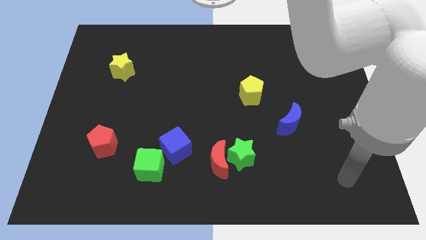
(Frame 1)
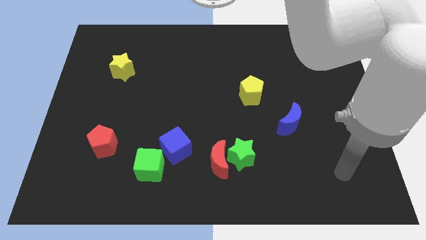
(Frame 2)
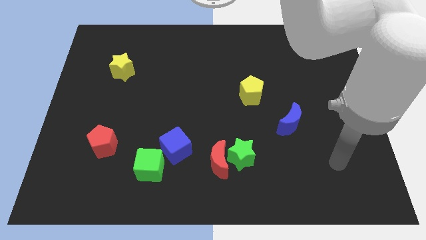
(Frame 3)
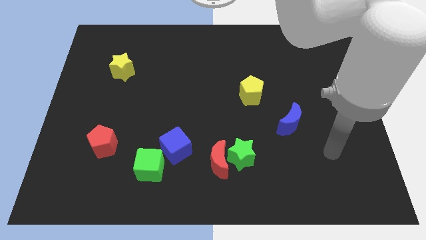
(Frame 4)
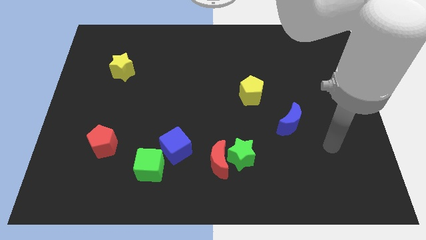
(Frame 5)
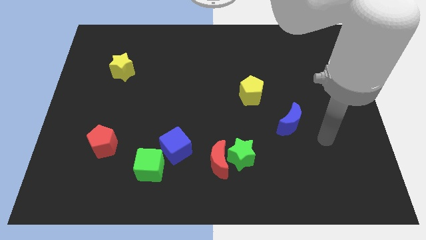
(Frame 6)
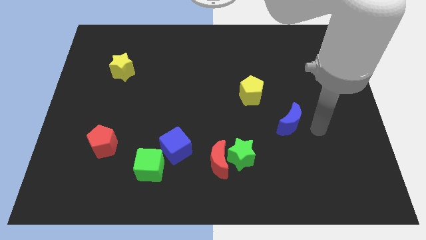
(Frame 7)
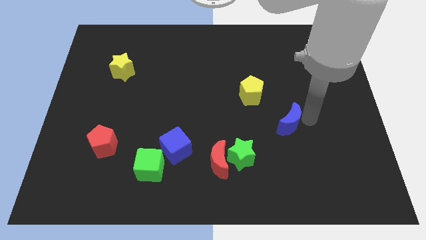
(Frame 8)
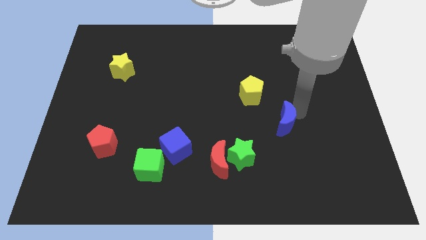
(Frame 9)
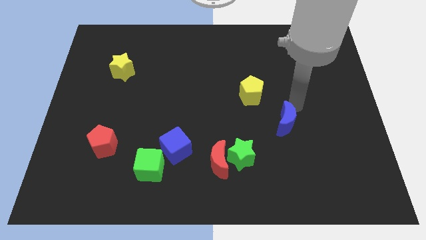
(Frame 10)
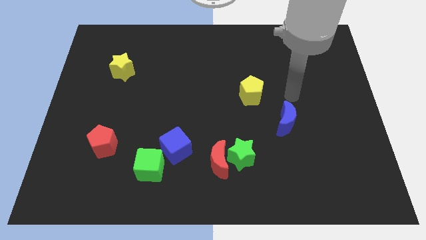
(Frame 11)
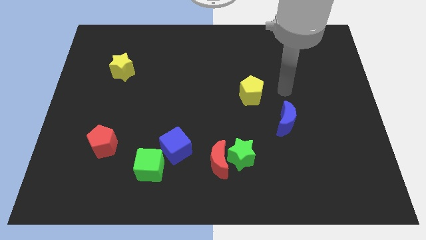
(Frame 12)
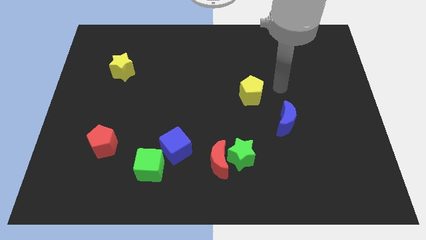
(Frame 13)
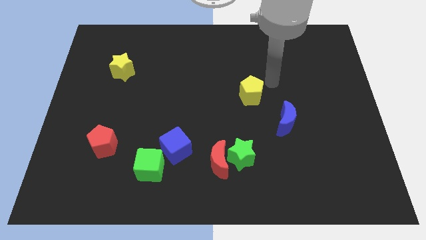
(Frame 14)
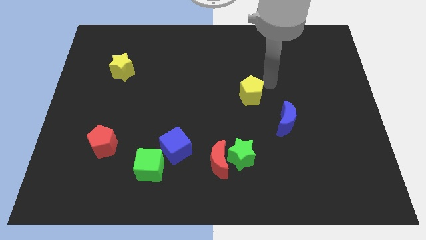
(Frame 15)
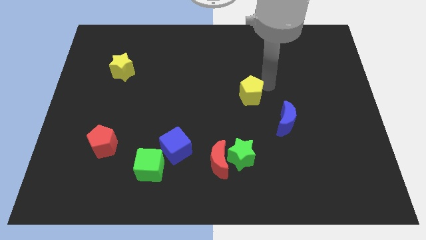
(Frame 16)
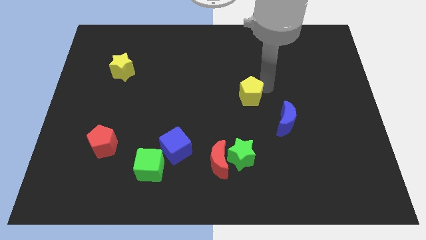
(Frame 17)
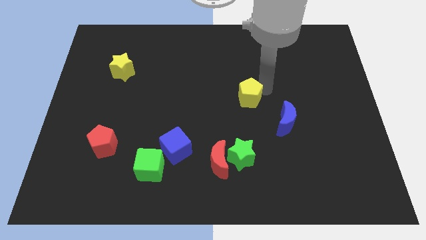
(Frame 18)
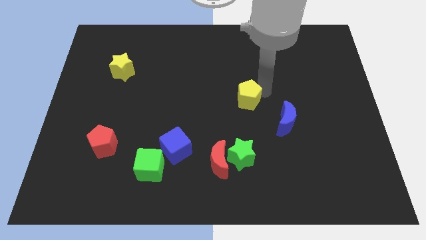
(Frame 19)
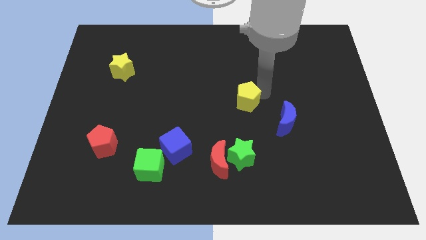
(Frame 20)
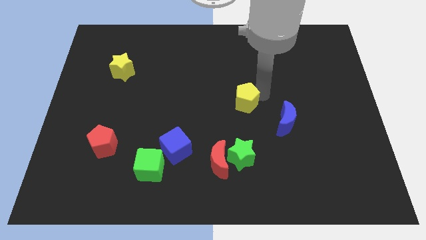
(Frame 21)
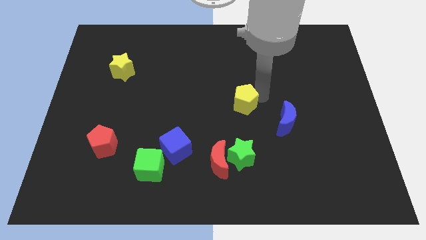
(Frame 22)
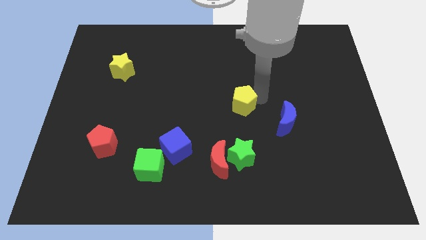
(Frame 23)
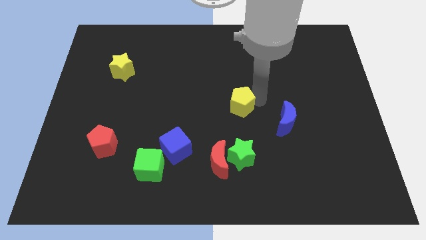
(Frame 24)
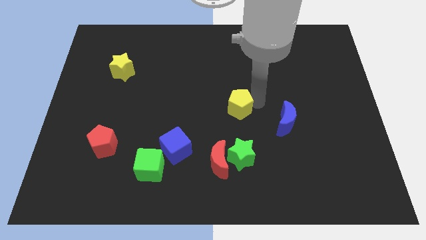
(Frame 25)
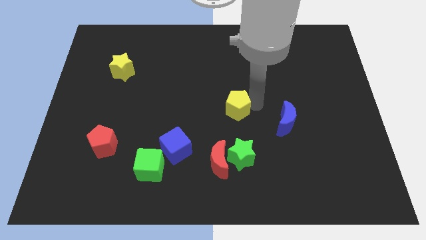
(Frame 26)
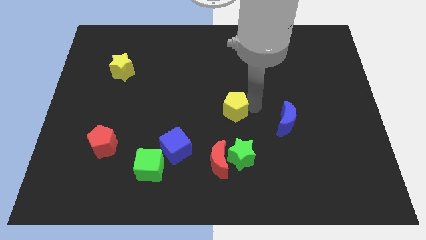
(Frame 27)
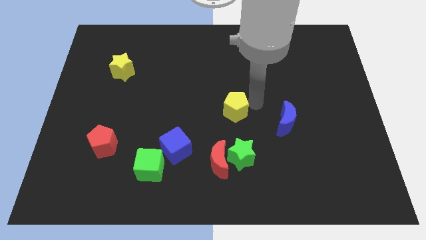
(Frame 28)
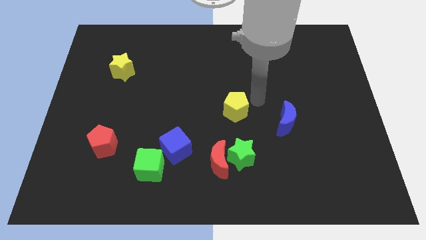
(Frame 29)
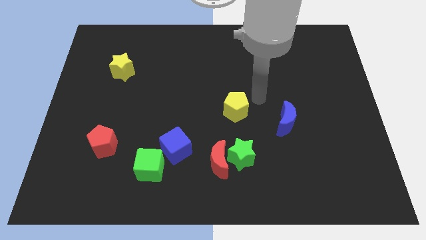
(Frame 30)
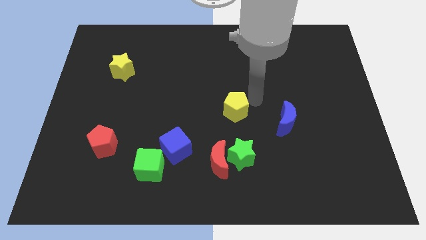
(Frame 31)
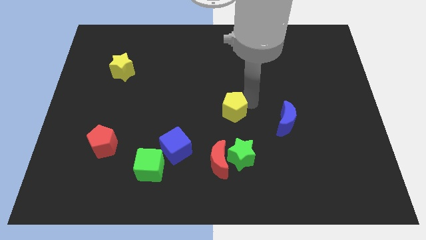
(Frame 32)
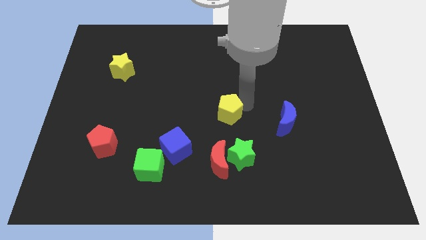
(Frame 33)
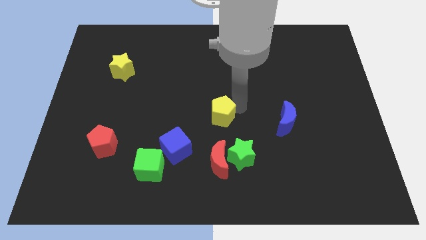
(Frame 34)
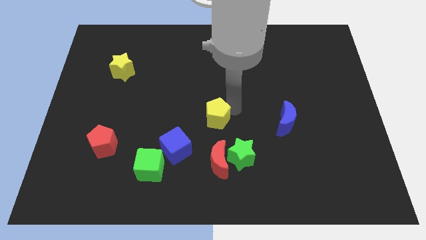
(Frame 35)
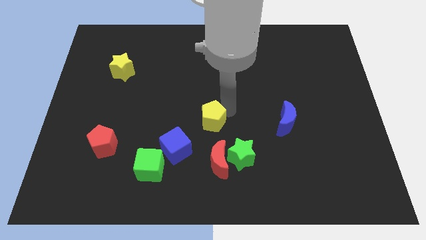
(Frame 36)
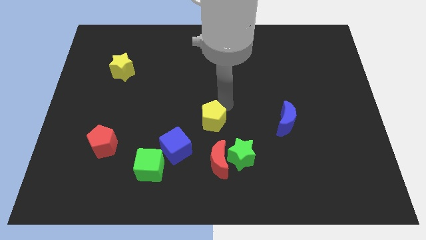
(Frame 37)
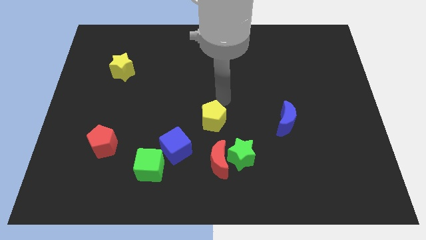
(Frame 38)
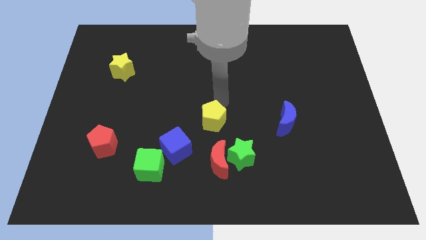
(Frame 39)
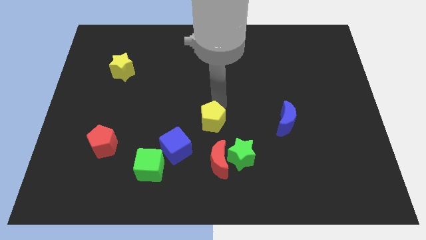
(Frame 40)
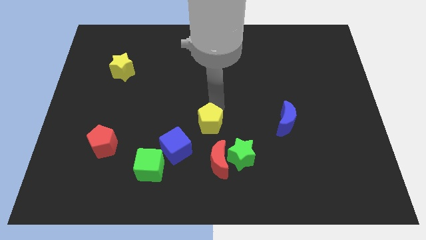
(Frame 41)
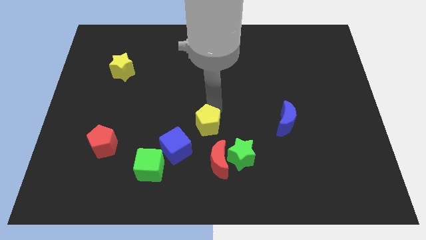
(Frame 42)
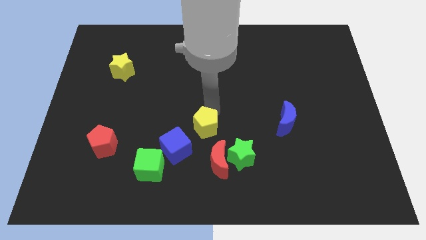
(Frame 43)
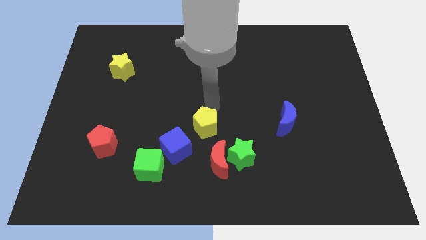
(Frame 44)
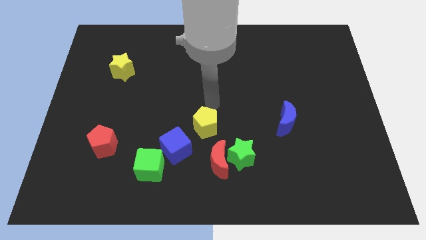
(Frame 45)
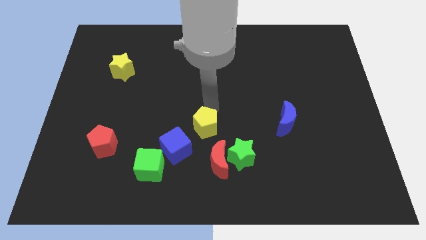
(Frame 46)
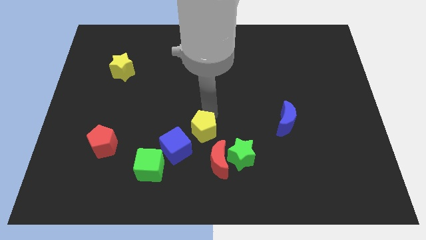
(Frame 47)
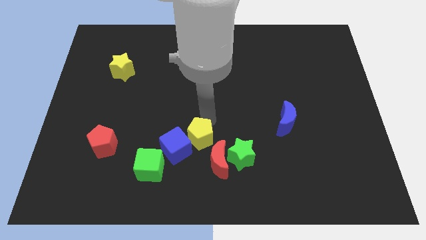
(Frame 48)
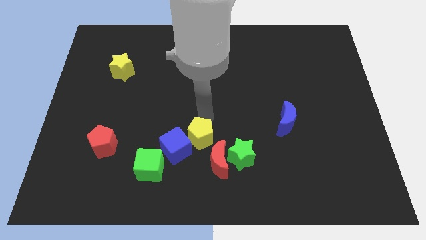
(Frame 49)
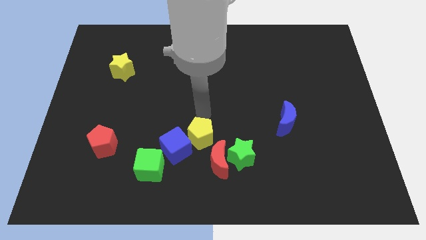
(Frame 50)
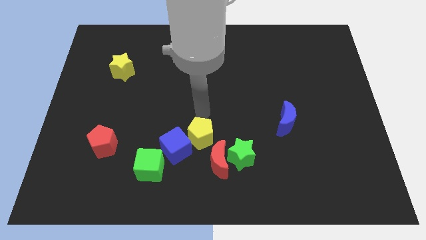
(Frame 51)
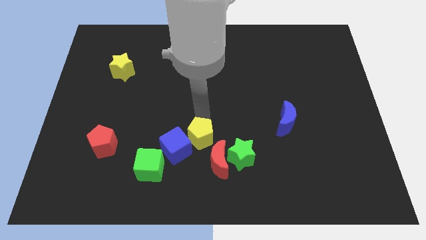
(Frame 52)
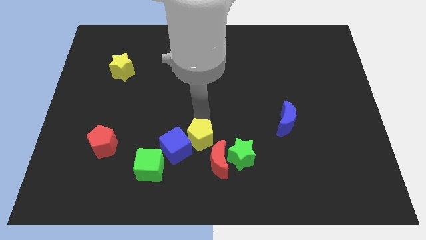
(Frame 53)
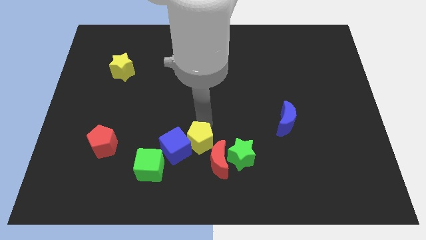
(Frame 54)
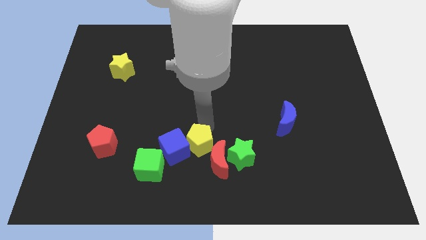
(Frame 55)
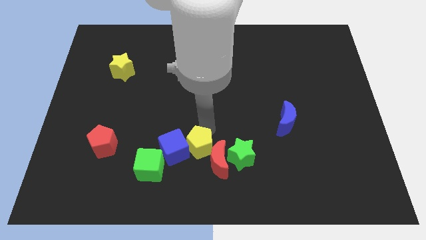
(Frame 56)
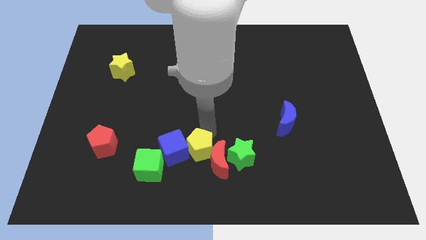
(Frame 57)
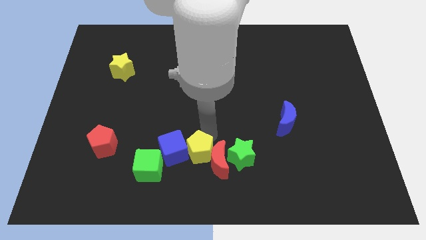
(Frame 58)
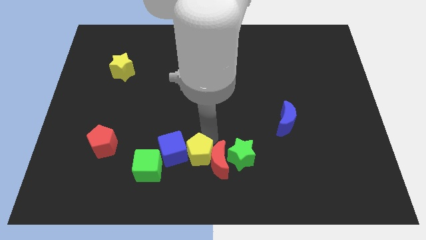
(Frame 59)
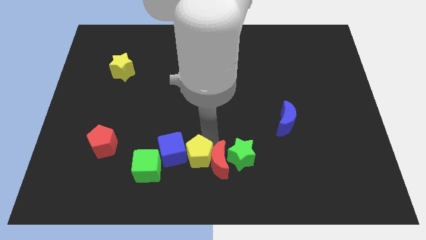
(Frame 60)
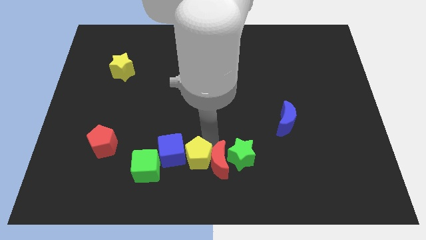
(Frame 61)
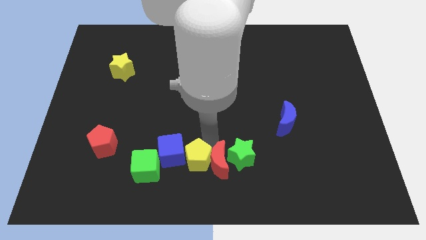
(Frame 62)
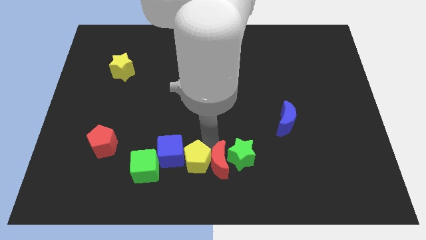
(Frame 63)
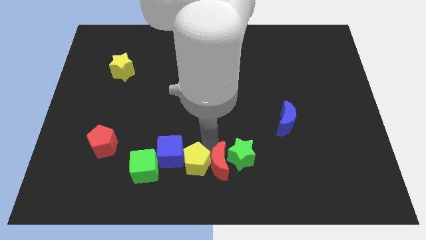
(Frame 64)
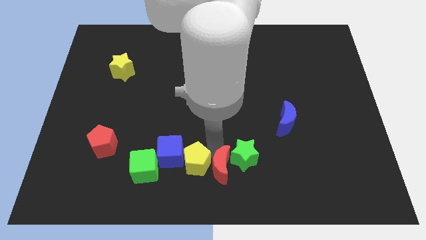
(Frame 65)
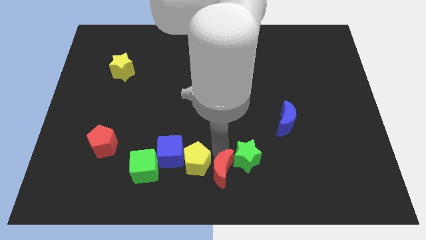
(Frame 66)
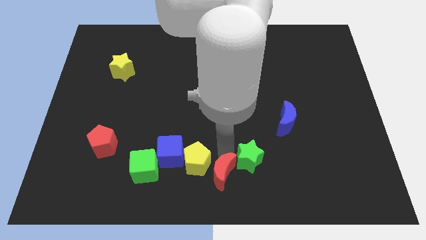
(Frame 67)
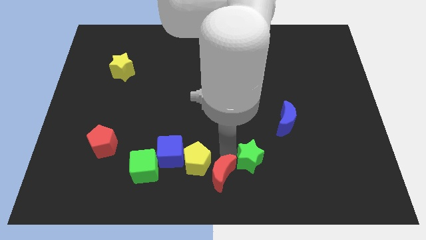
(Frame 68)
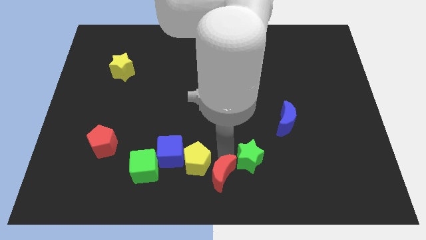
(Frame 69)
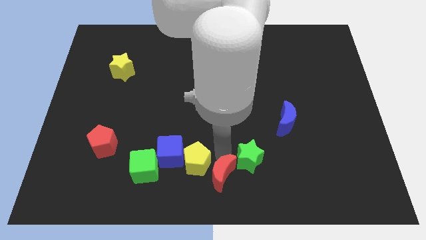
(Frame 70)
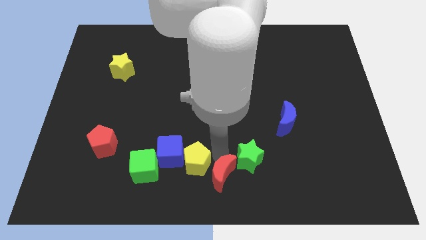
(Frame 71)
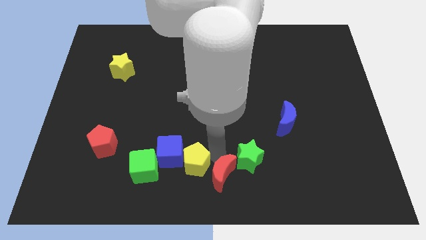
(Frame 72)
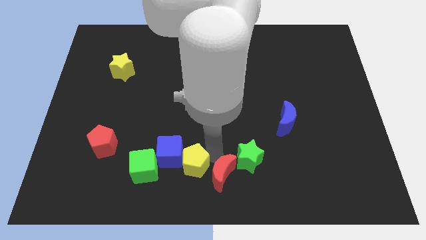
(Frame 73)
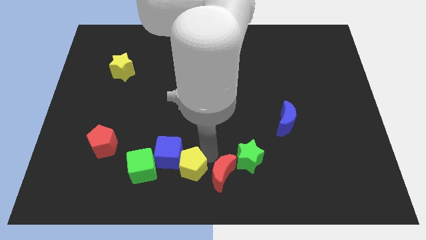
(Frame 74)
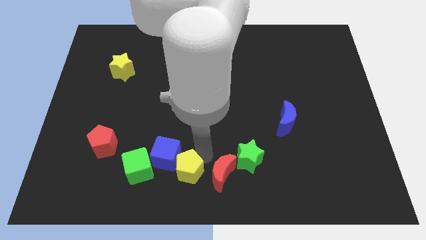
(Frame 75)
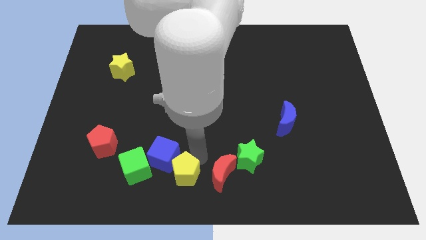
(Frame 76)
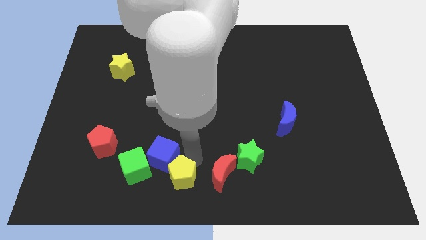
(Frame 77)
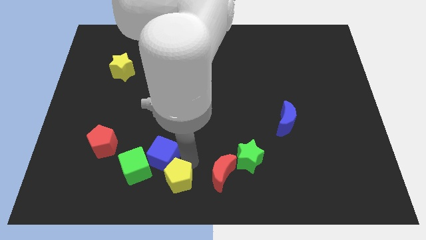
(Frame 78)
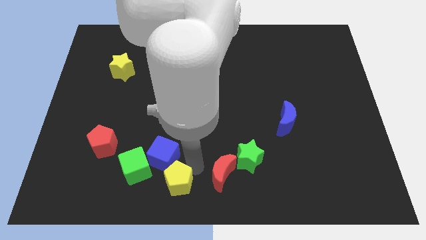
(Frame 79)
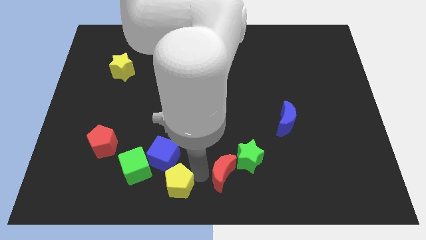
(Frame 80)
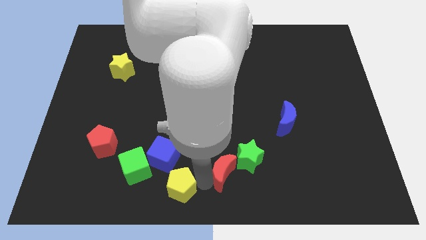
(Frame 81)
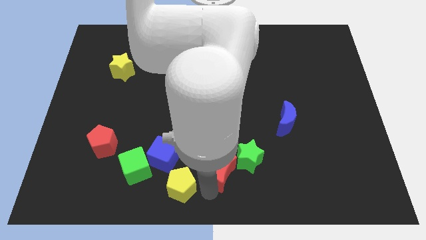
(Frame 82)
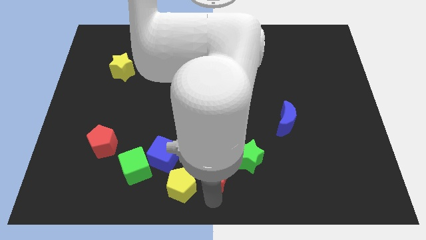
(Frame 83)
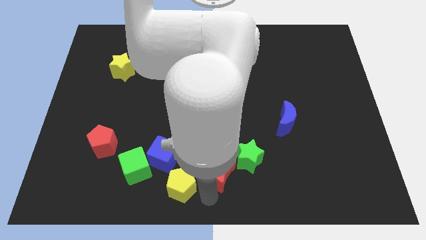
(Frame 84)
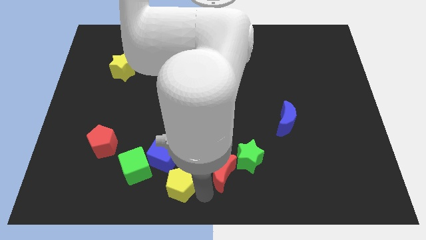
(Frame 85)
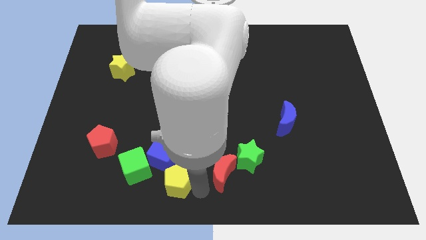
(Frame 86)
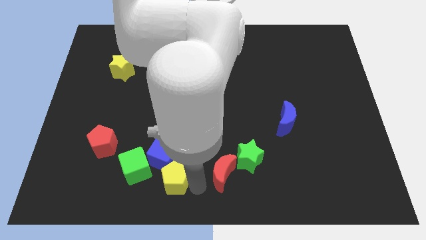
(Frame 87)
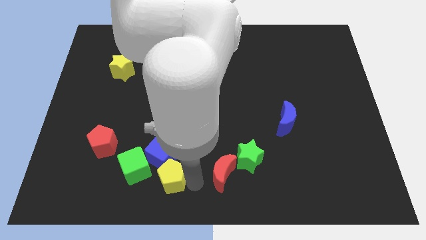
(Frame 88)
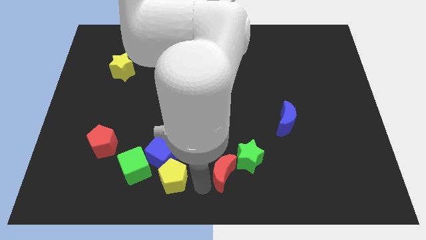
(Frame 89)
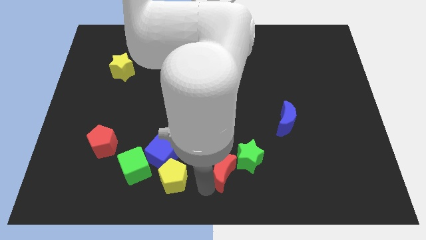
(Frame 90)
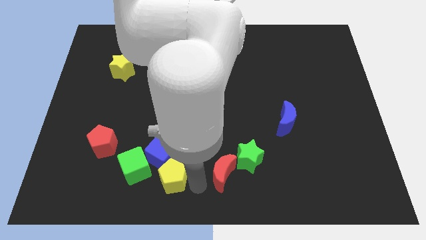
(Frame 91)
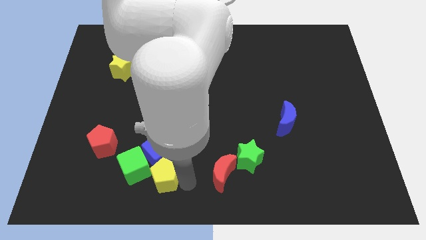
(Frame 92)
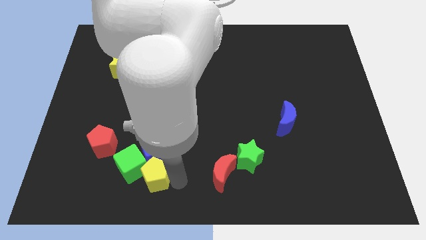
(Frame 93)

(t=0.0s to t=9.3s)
slide the yellow pentagon next to the green cube
